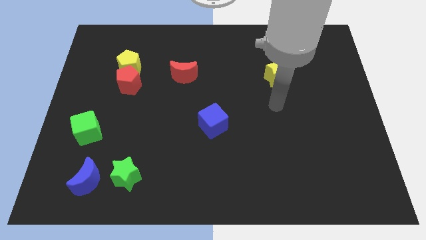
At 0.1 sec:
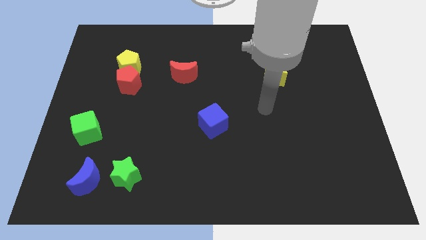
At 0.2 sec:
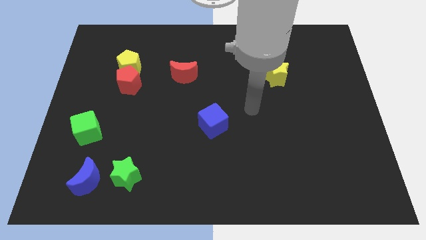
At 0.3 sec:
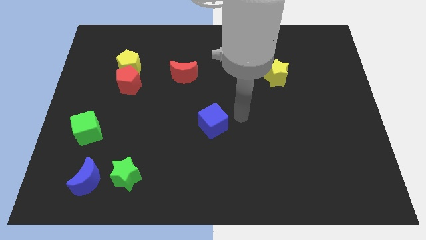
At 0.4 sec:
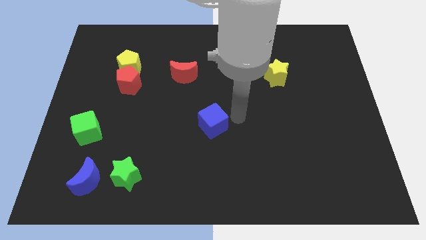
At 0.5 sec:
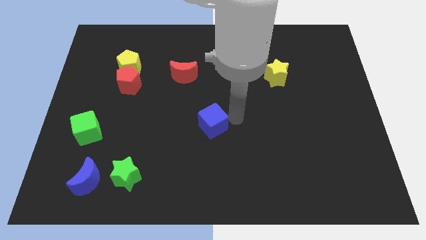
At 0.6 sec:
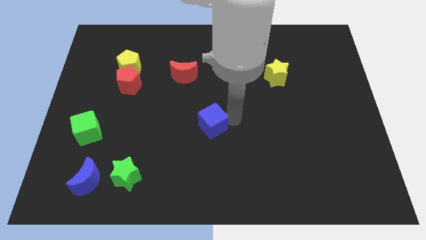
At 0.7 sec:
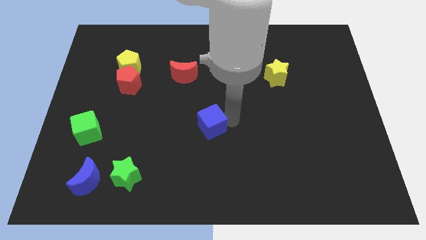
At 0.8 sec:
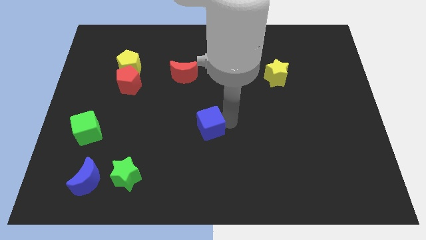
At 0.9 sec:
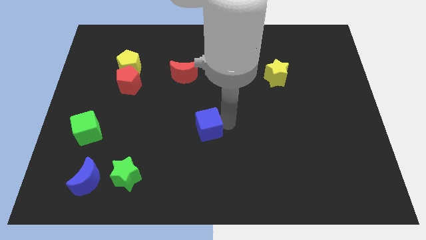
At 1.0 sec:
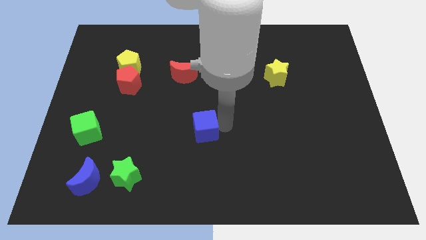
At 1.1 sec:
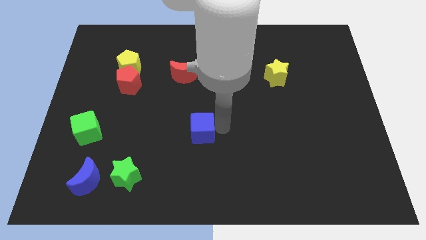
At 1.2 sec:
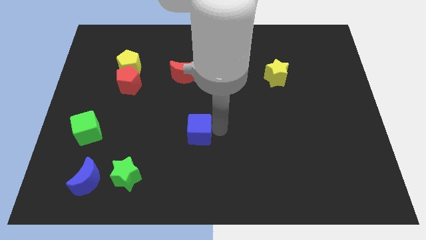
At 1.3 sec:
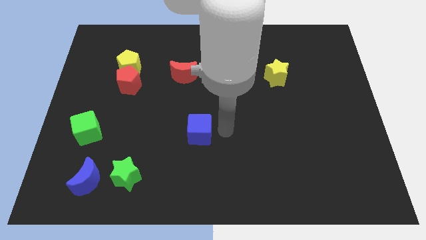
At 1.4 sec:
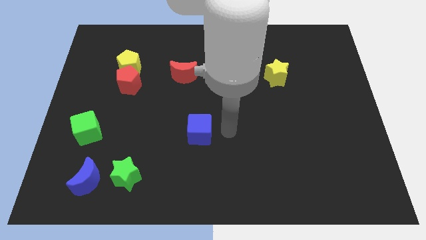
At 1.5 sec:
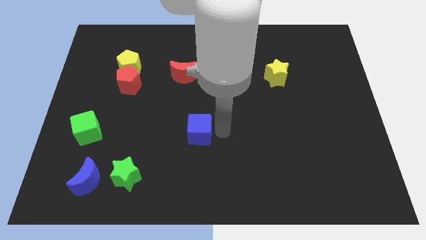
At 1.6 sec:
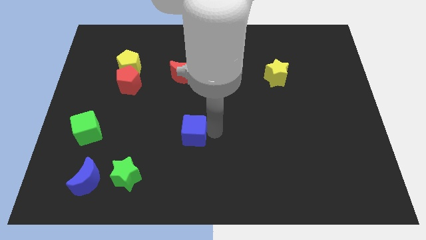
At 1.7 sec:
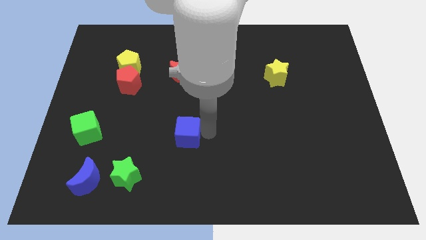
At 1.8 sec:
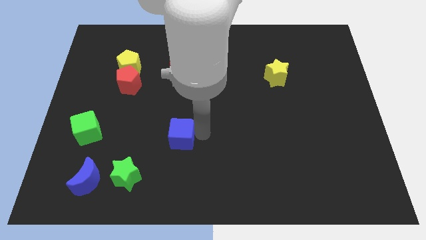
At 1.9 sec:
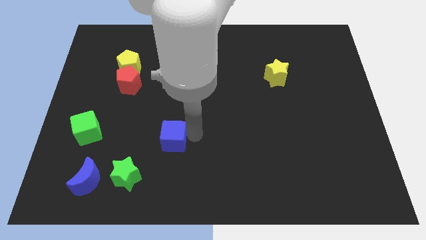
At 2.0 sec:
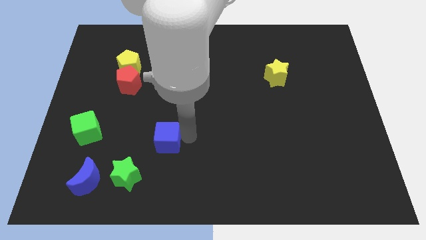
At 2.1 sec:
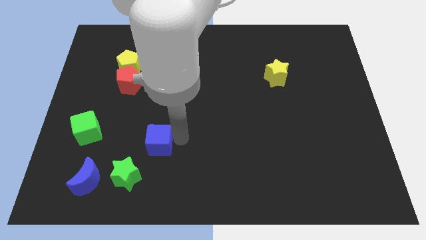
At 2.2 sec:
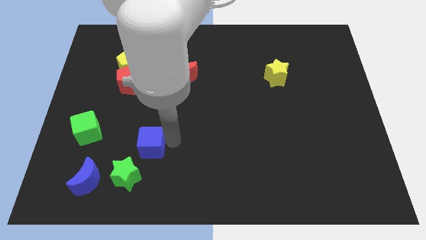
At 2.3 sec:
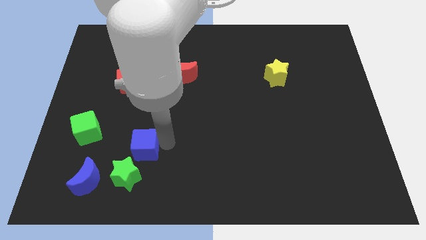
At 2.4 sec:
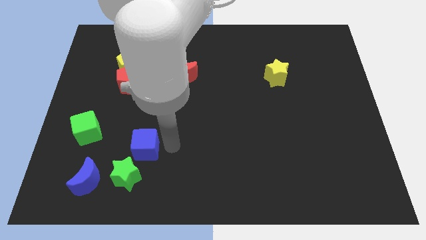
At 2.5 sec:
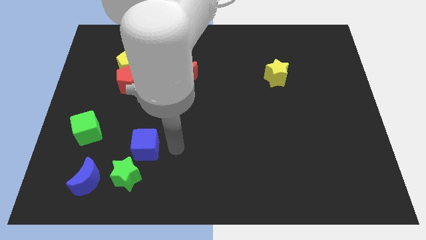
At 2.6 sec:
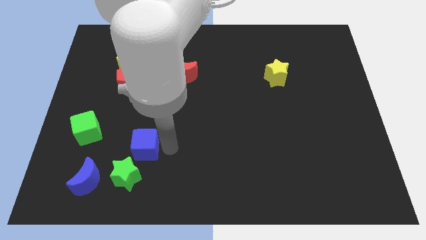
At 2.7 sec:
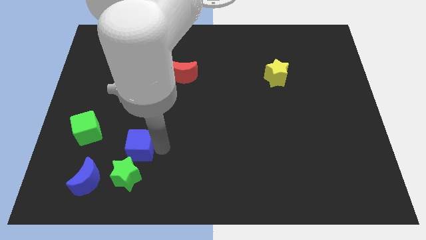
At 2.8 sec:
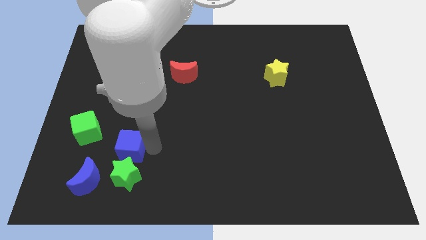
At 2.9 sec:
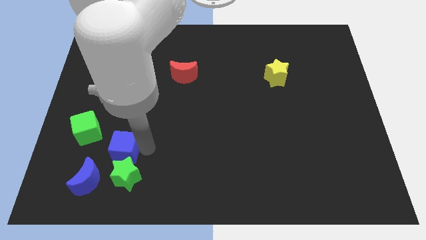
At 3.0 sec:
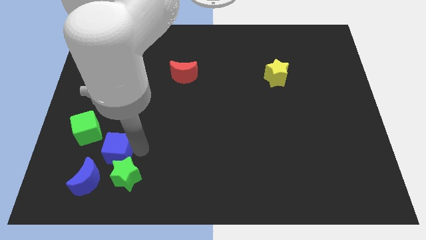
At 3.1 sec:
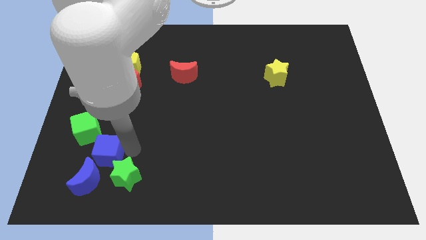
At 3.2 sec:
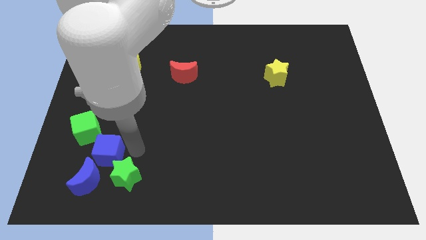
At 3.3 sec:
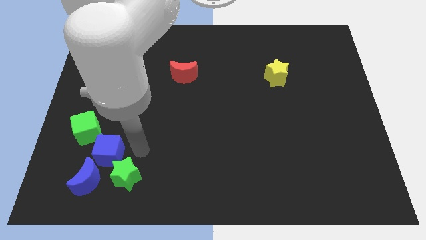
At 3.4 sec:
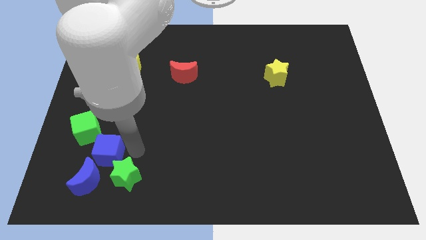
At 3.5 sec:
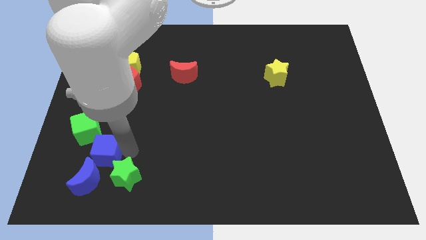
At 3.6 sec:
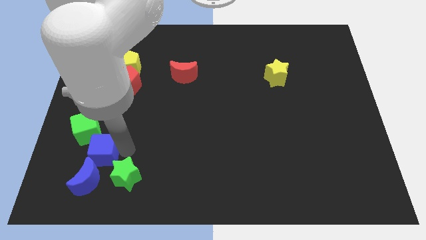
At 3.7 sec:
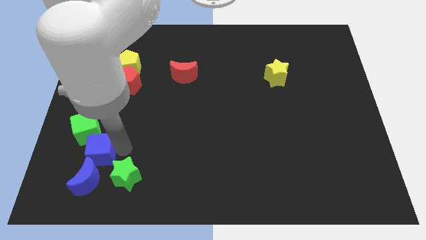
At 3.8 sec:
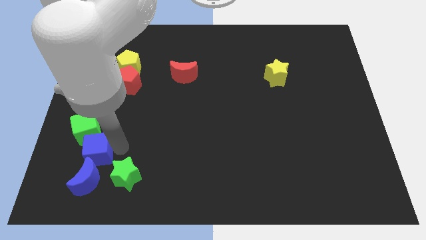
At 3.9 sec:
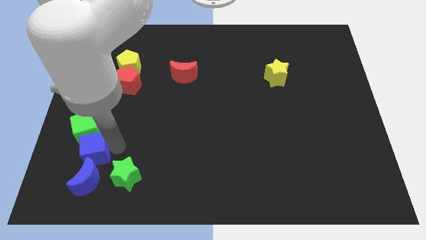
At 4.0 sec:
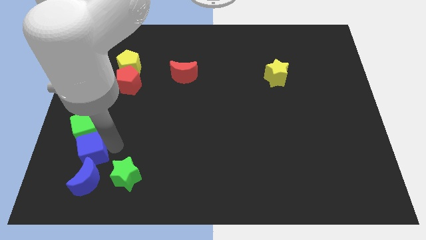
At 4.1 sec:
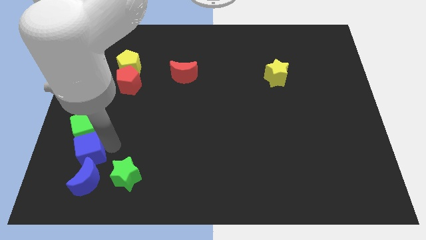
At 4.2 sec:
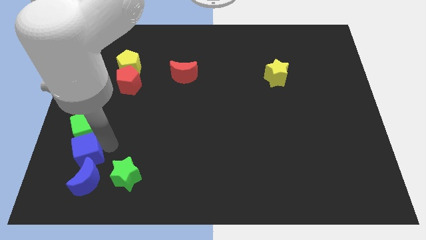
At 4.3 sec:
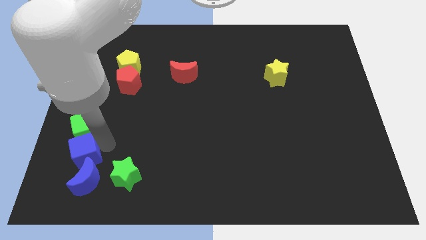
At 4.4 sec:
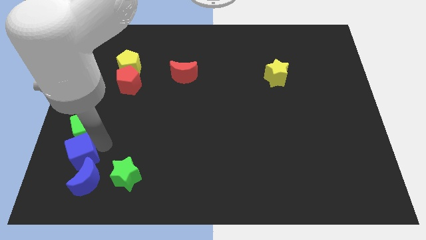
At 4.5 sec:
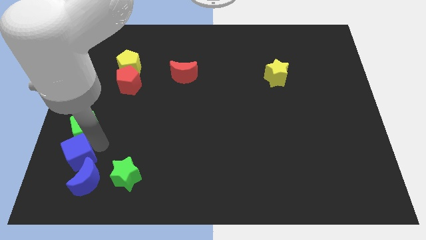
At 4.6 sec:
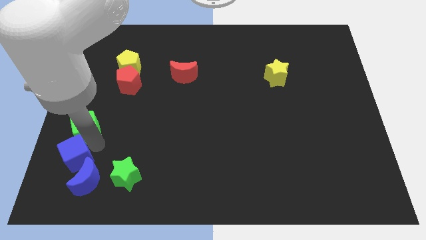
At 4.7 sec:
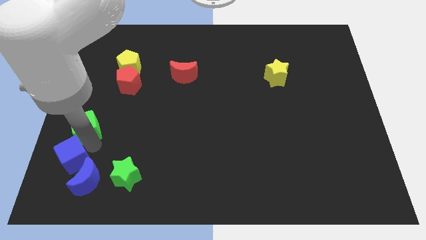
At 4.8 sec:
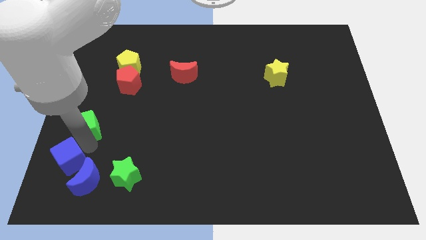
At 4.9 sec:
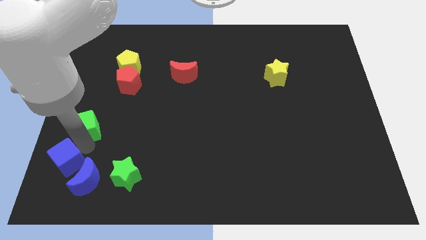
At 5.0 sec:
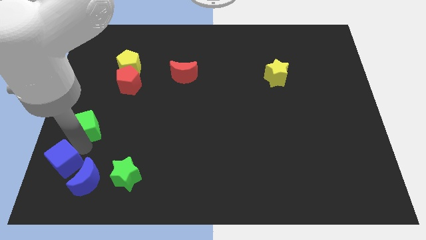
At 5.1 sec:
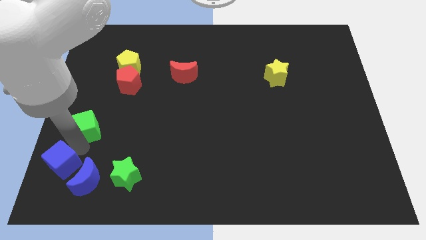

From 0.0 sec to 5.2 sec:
put the blue cube to the lower left corner

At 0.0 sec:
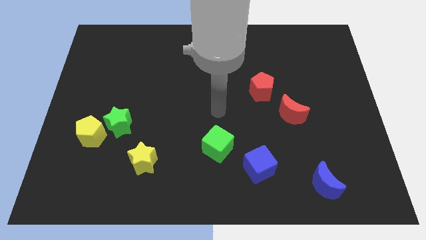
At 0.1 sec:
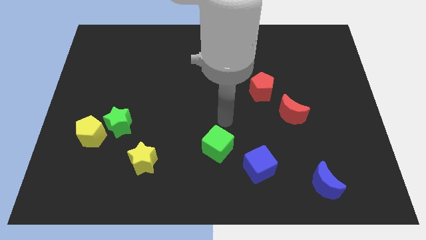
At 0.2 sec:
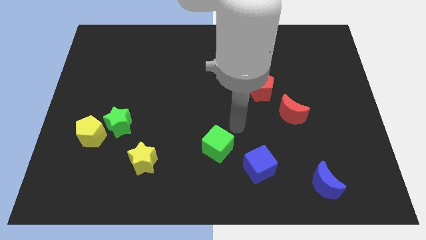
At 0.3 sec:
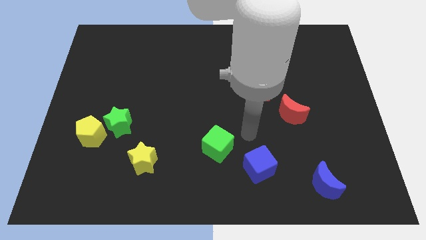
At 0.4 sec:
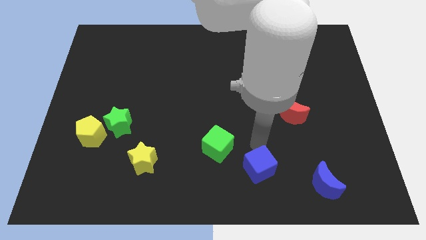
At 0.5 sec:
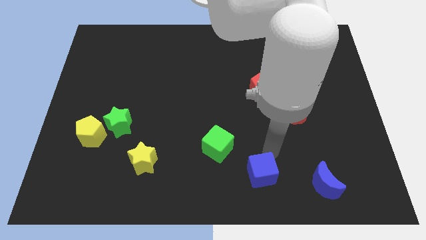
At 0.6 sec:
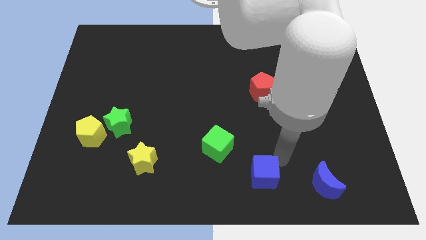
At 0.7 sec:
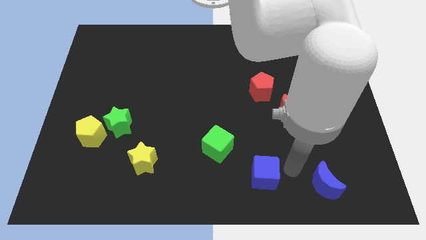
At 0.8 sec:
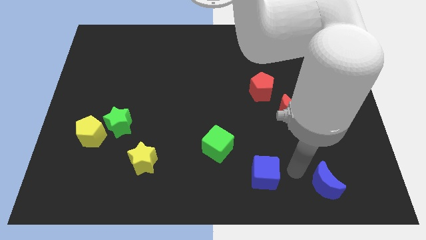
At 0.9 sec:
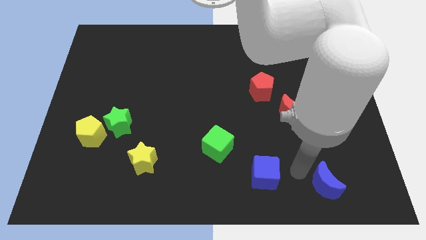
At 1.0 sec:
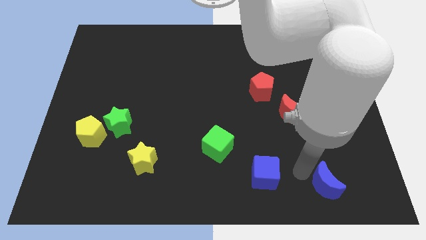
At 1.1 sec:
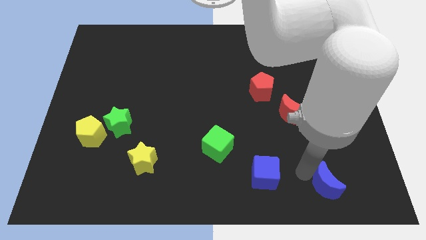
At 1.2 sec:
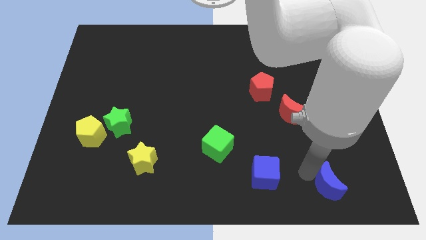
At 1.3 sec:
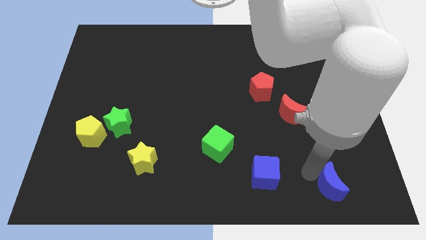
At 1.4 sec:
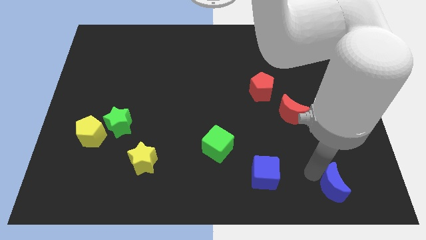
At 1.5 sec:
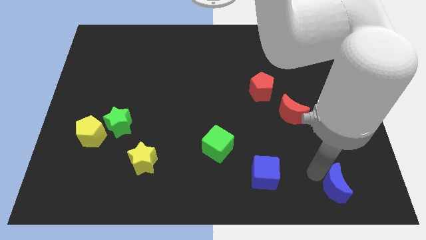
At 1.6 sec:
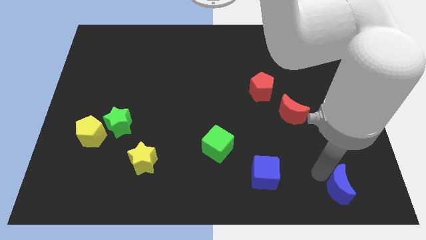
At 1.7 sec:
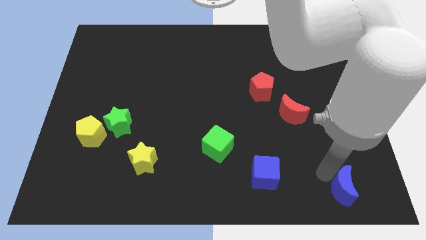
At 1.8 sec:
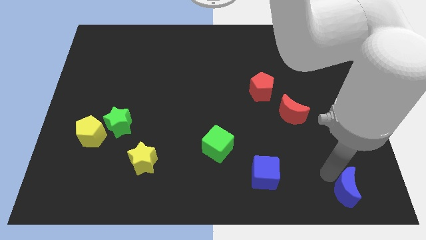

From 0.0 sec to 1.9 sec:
push the blue moon to the bottom right of the board
